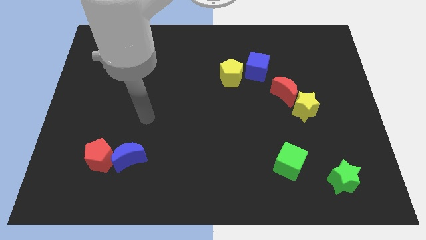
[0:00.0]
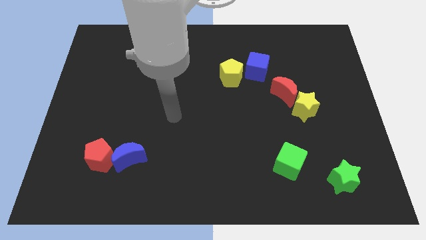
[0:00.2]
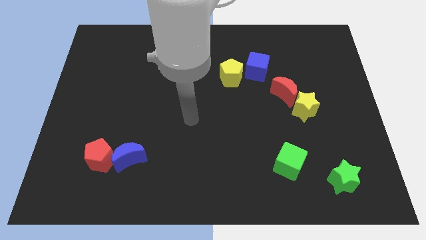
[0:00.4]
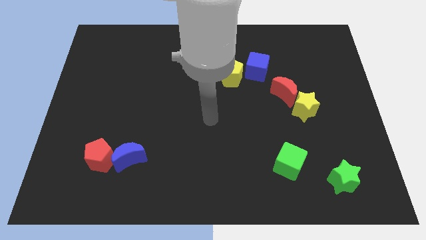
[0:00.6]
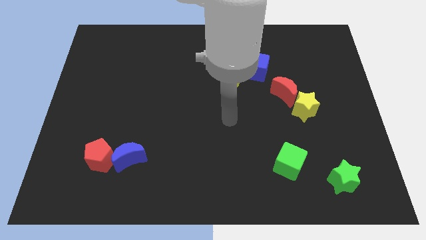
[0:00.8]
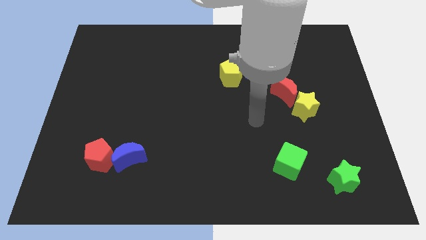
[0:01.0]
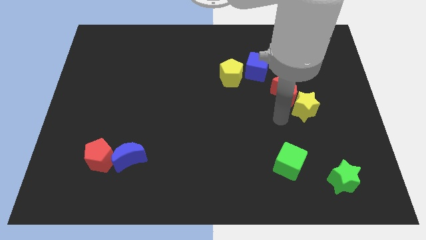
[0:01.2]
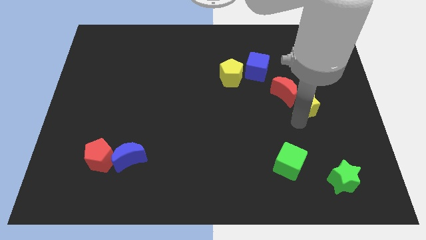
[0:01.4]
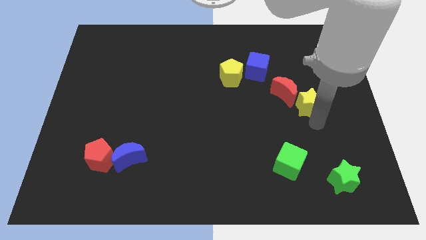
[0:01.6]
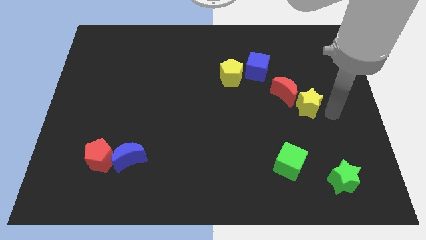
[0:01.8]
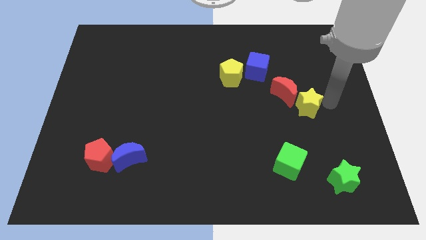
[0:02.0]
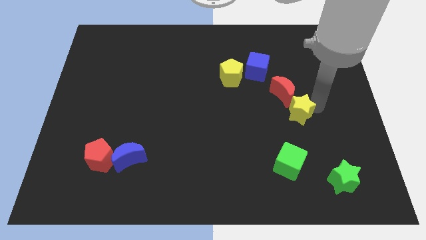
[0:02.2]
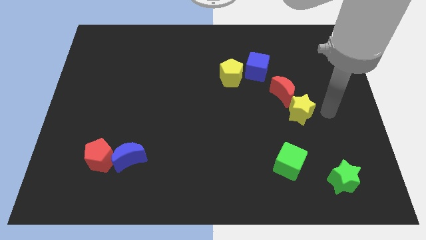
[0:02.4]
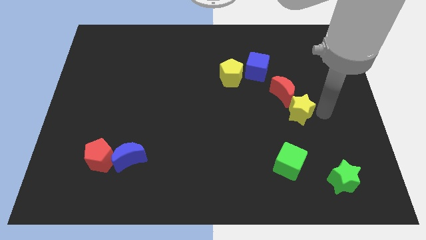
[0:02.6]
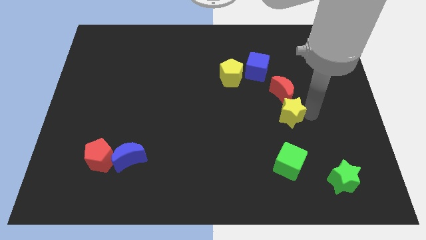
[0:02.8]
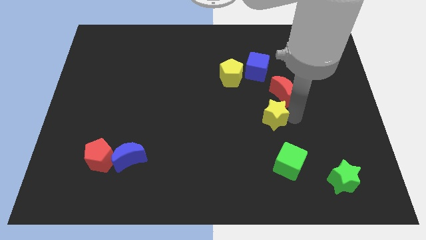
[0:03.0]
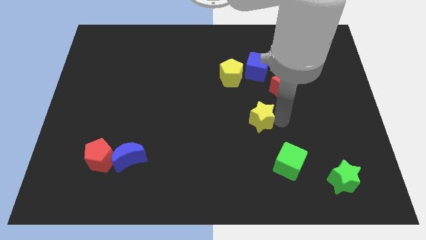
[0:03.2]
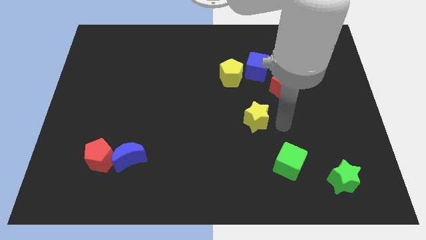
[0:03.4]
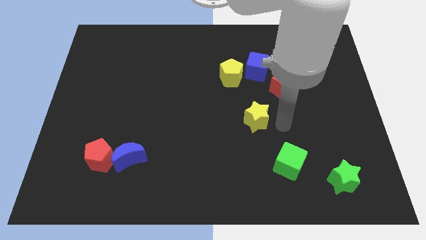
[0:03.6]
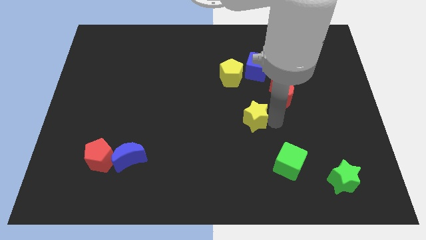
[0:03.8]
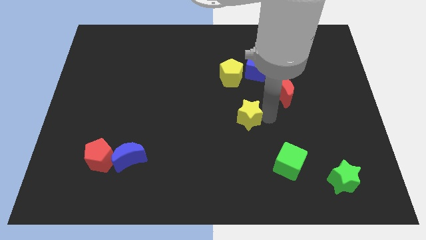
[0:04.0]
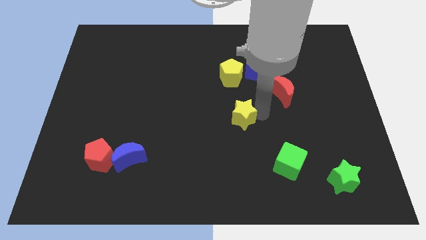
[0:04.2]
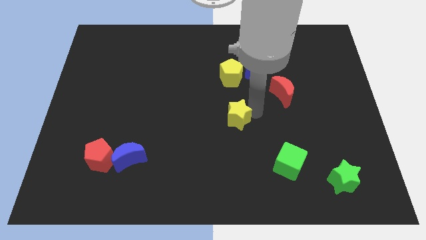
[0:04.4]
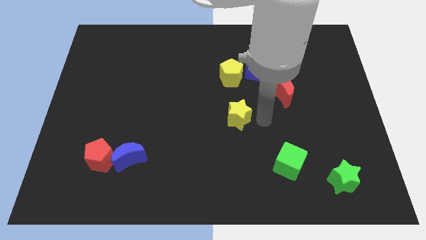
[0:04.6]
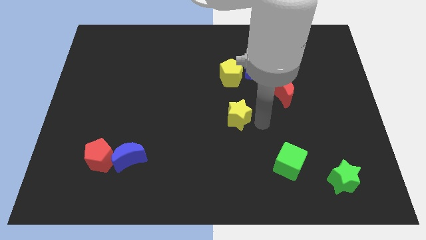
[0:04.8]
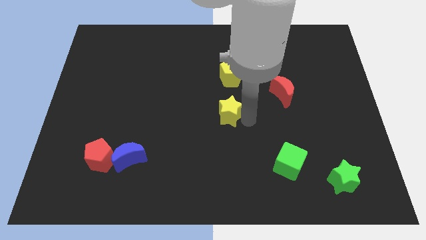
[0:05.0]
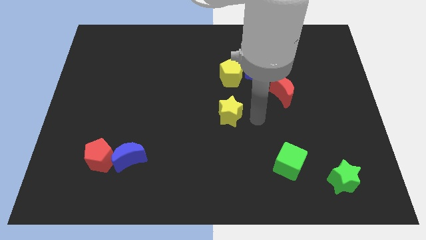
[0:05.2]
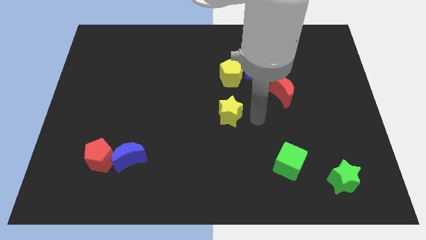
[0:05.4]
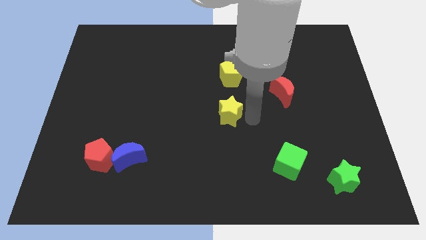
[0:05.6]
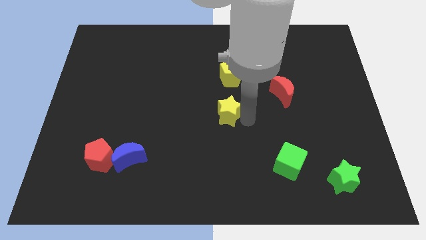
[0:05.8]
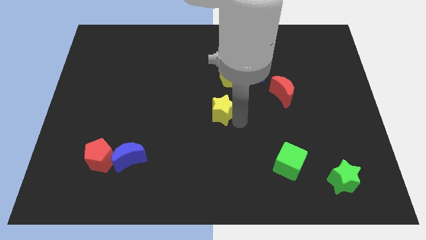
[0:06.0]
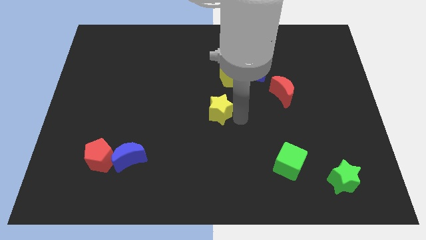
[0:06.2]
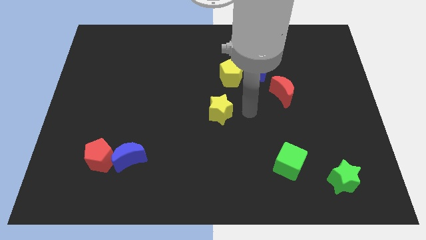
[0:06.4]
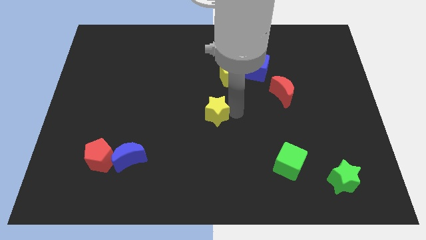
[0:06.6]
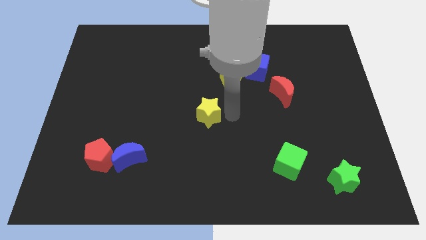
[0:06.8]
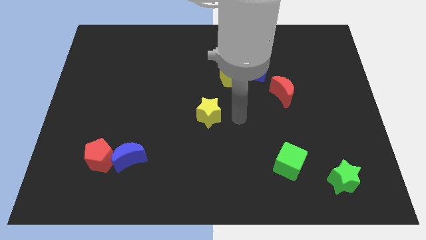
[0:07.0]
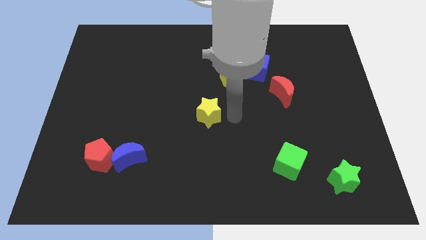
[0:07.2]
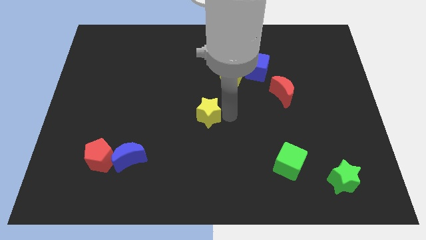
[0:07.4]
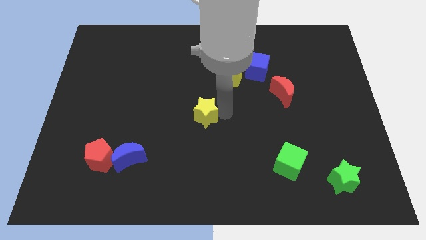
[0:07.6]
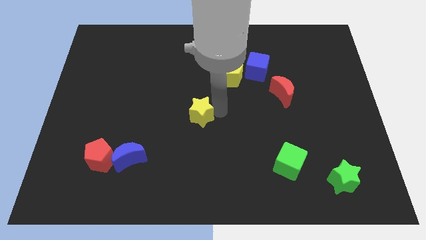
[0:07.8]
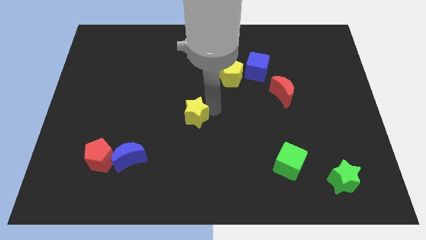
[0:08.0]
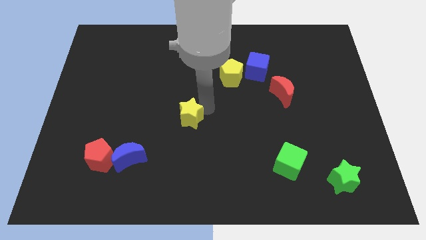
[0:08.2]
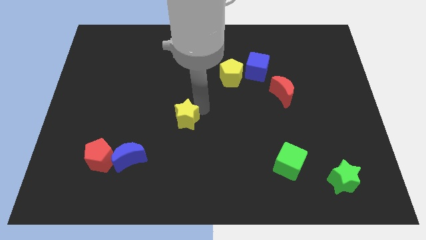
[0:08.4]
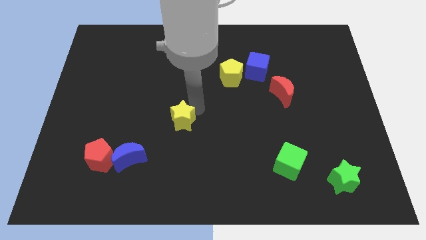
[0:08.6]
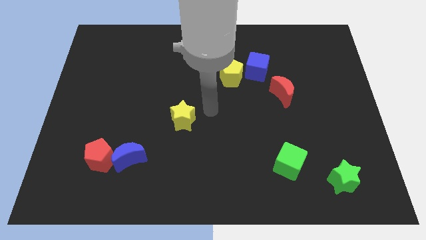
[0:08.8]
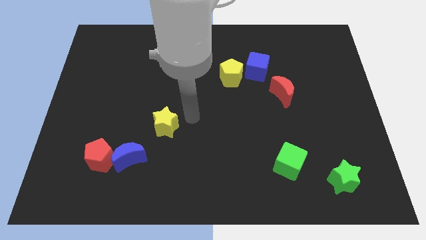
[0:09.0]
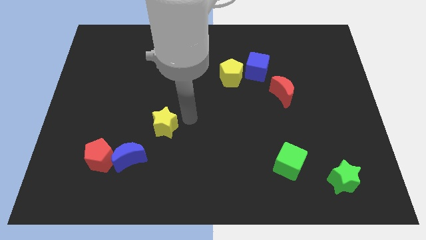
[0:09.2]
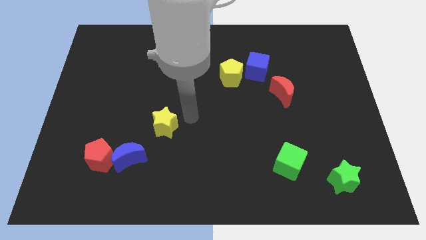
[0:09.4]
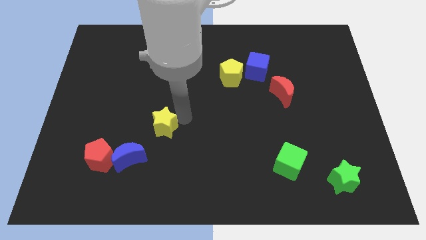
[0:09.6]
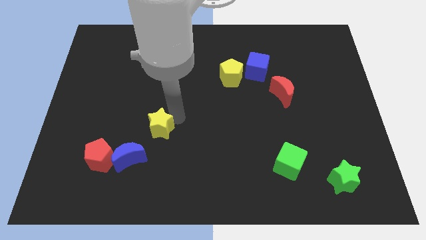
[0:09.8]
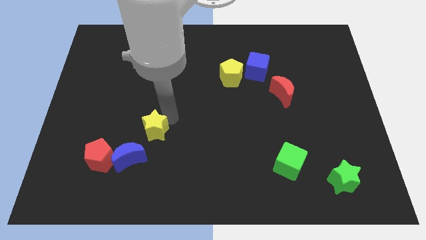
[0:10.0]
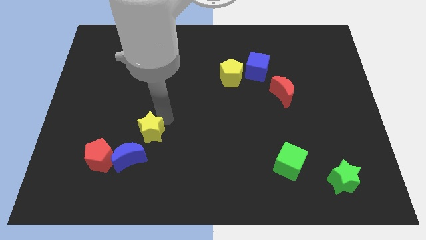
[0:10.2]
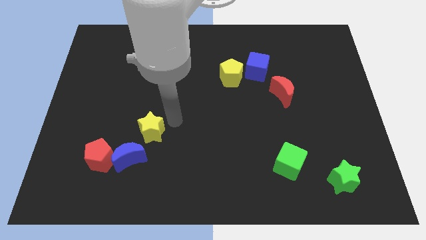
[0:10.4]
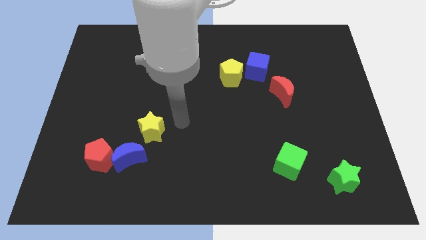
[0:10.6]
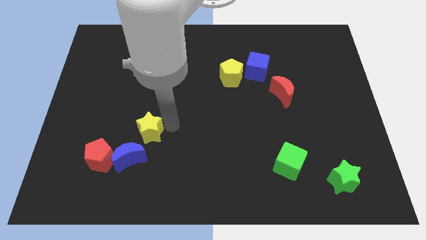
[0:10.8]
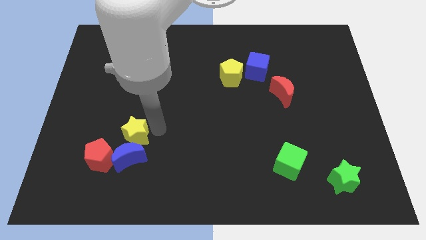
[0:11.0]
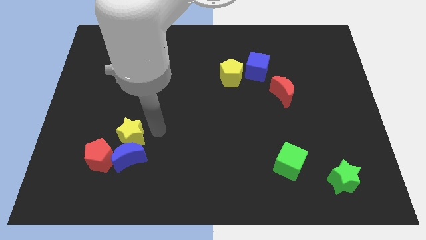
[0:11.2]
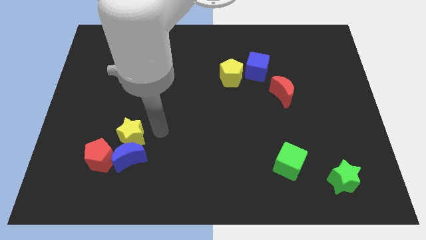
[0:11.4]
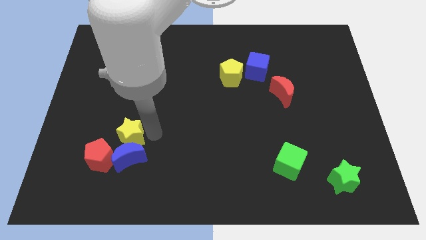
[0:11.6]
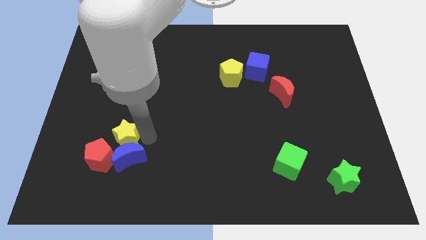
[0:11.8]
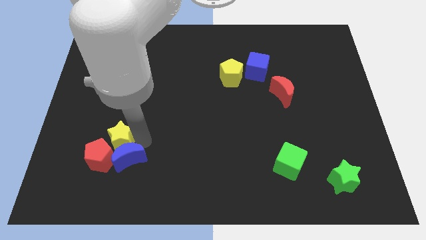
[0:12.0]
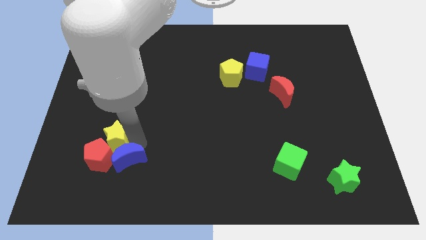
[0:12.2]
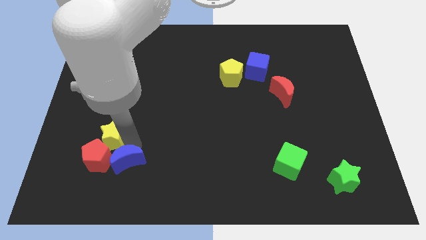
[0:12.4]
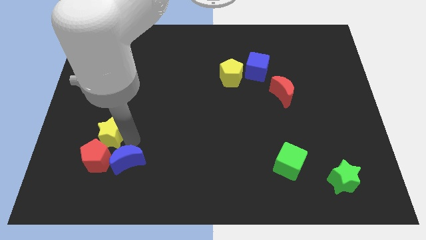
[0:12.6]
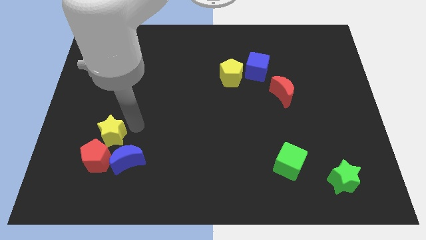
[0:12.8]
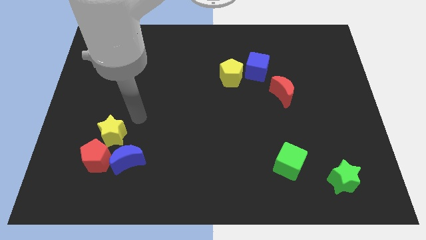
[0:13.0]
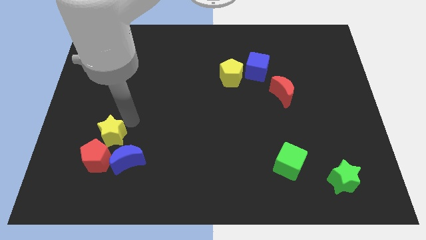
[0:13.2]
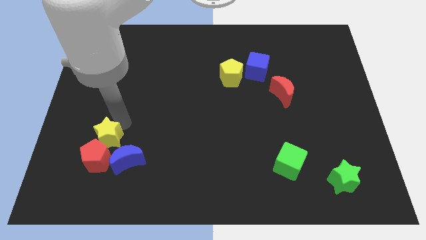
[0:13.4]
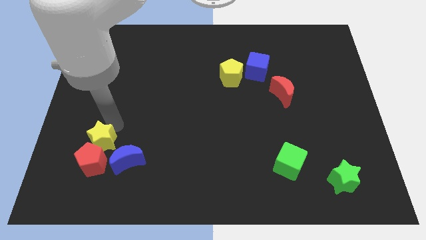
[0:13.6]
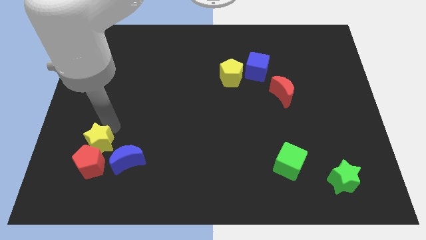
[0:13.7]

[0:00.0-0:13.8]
move the yellow star to the left side of the blue moon

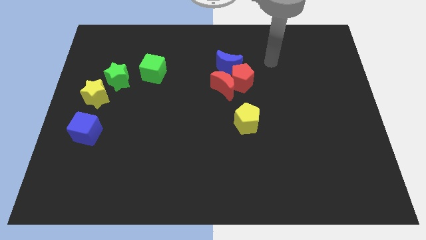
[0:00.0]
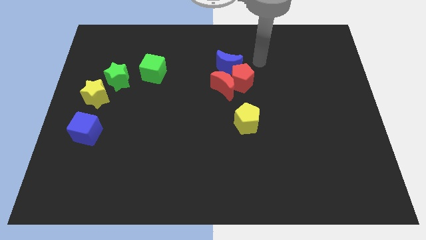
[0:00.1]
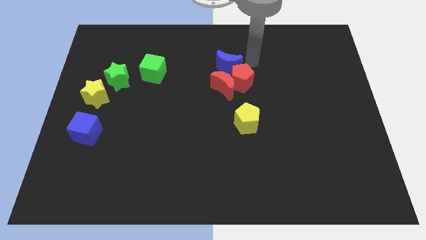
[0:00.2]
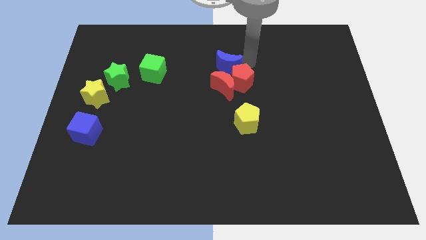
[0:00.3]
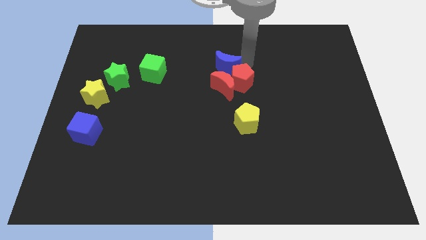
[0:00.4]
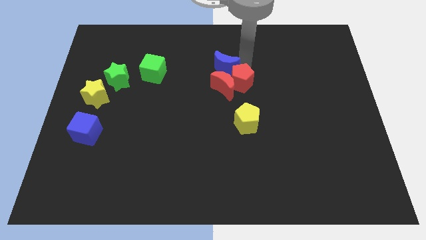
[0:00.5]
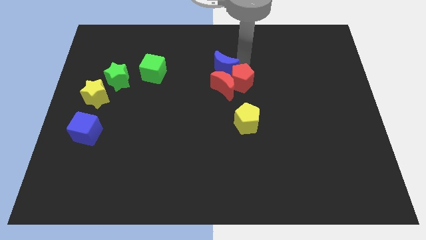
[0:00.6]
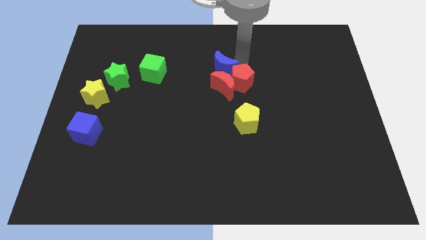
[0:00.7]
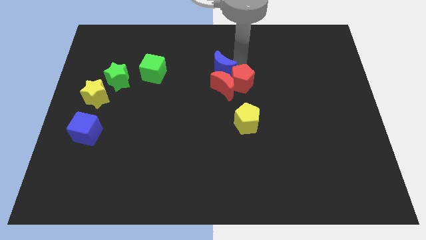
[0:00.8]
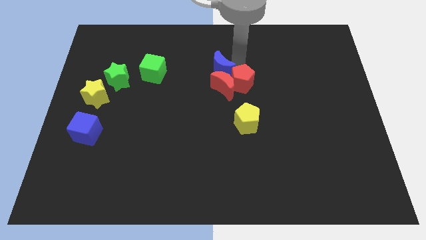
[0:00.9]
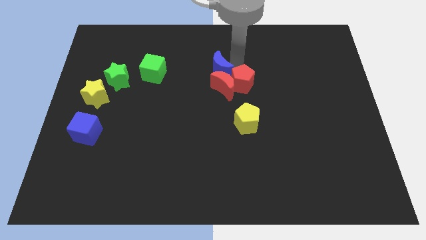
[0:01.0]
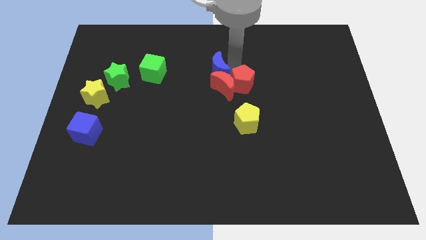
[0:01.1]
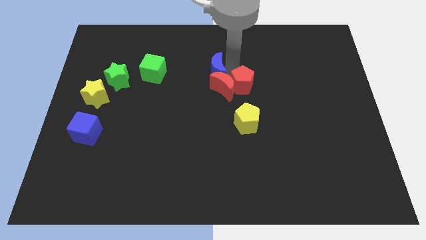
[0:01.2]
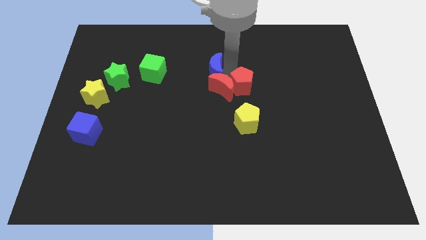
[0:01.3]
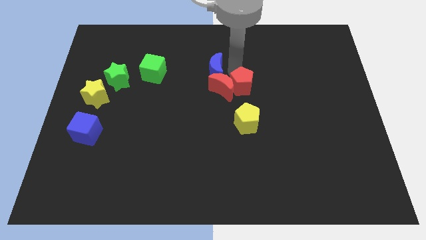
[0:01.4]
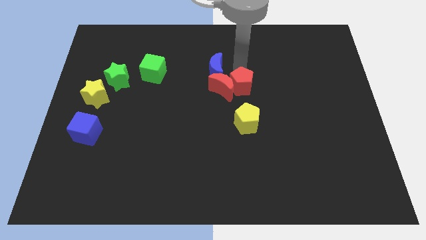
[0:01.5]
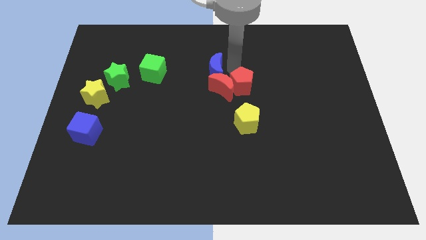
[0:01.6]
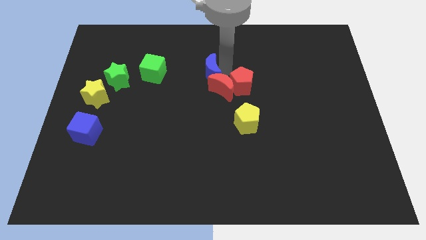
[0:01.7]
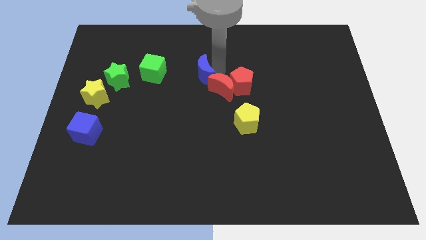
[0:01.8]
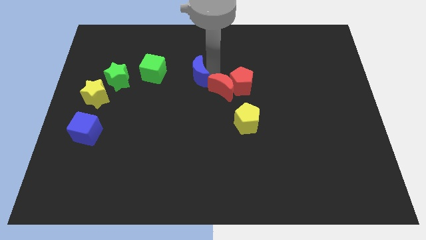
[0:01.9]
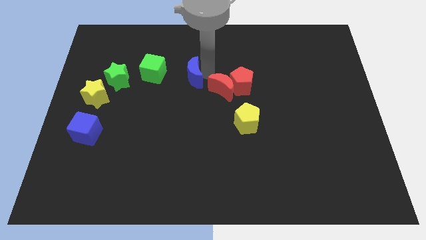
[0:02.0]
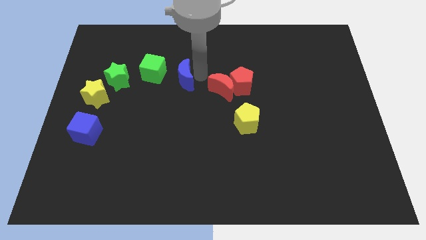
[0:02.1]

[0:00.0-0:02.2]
push the blue moon to the right of the green star
